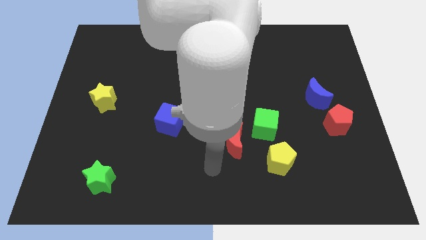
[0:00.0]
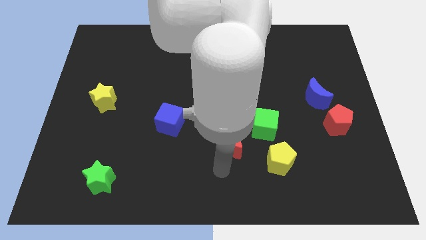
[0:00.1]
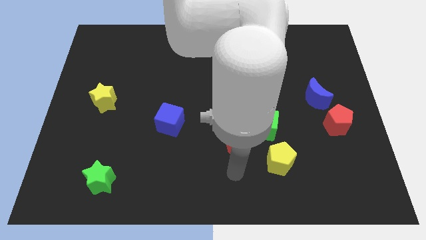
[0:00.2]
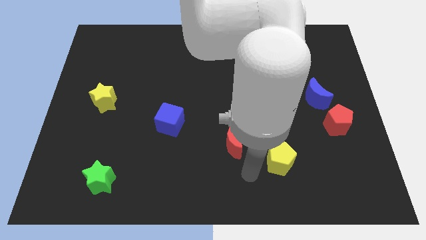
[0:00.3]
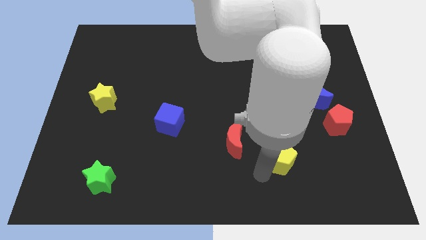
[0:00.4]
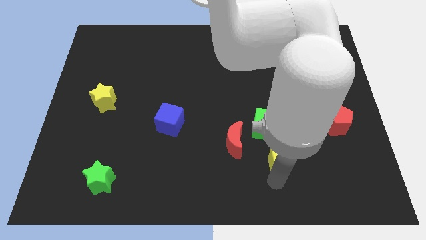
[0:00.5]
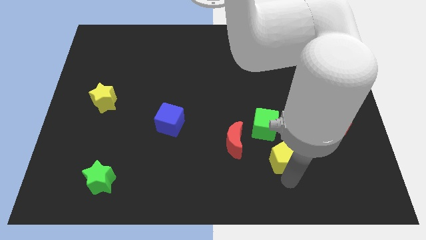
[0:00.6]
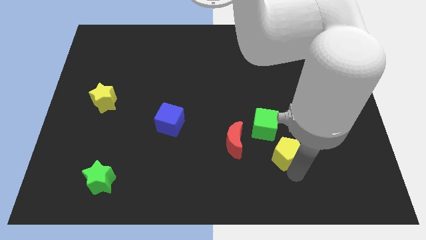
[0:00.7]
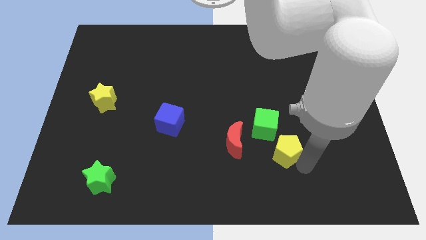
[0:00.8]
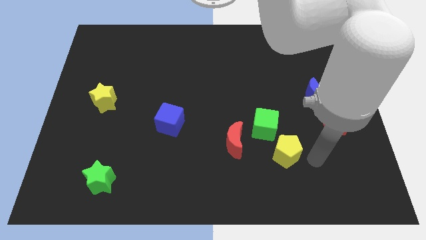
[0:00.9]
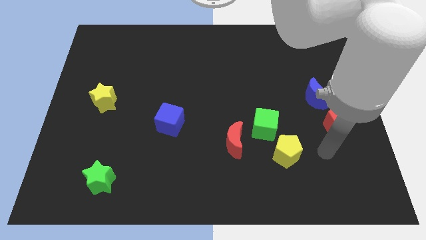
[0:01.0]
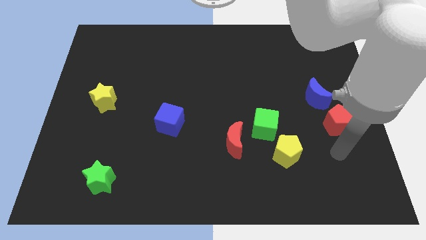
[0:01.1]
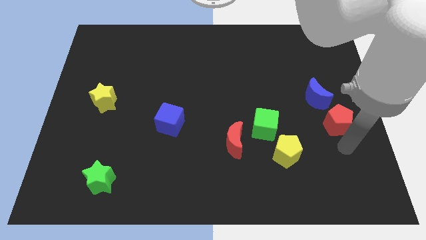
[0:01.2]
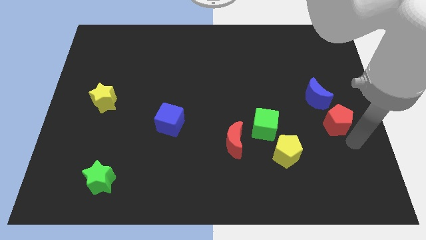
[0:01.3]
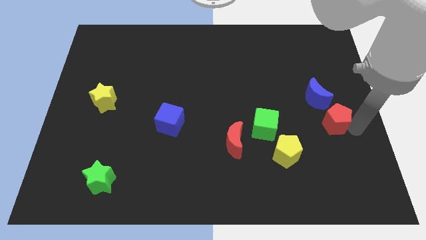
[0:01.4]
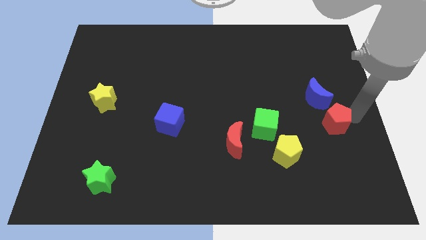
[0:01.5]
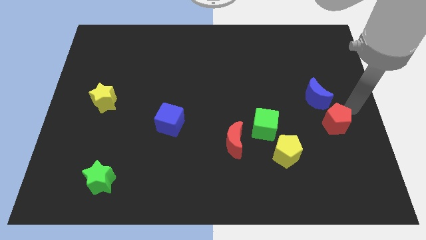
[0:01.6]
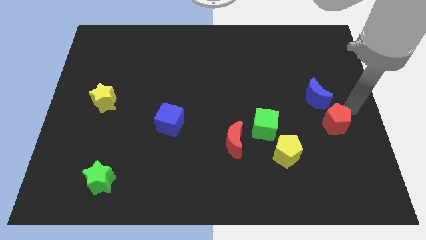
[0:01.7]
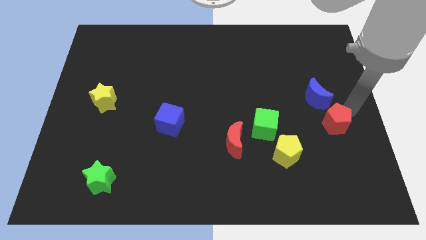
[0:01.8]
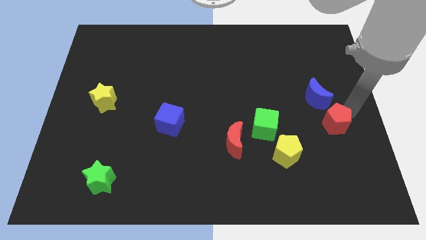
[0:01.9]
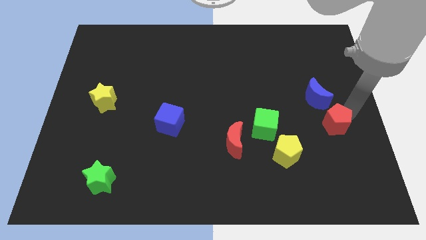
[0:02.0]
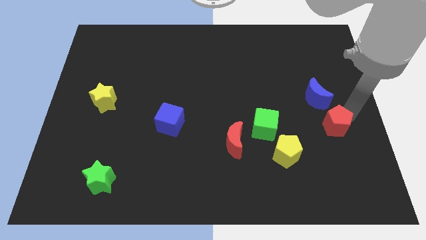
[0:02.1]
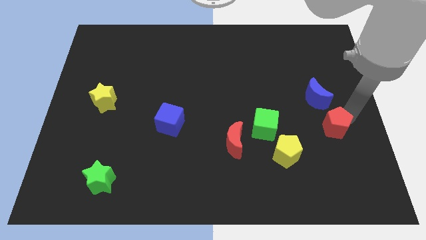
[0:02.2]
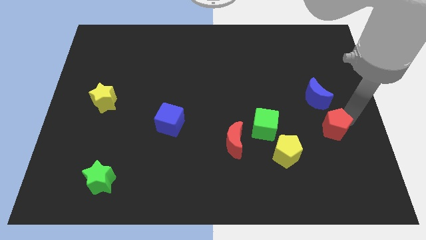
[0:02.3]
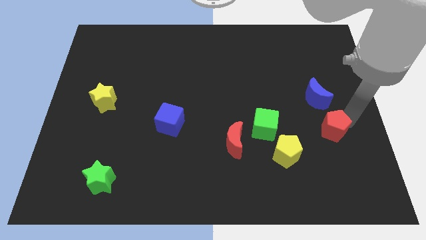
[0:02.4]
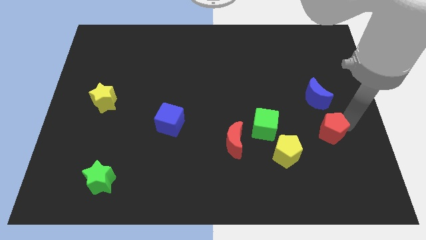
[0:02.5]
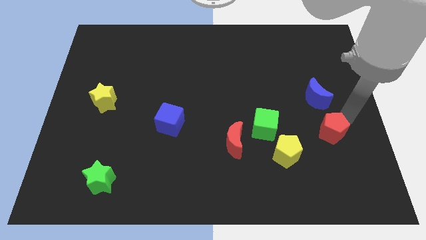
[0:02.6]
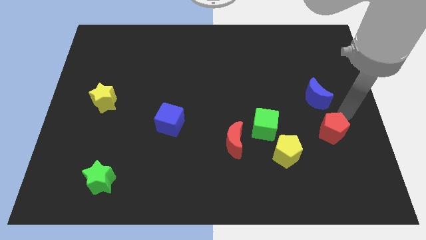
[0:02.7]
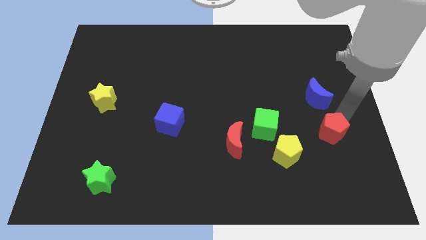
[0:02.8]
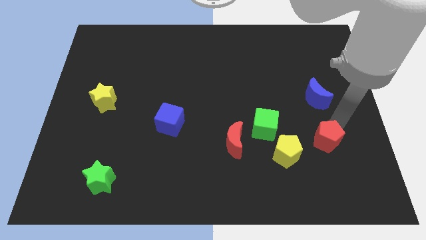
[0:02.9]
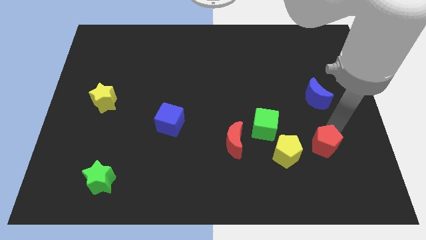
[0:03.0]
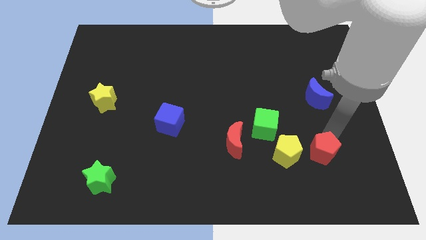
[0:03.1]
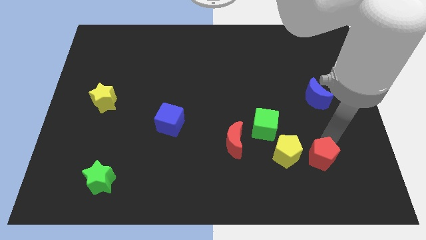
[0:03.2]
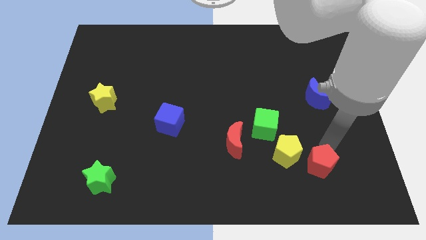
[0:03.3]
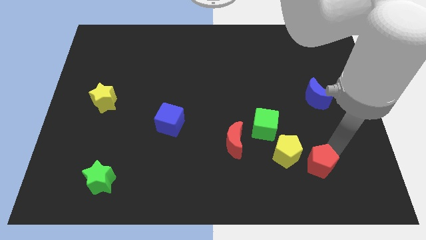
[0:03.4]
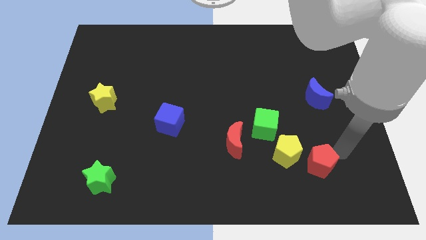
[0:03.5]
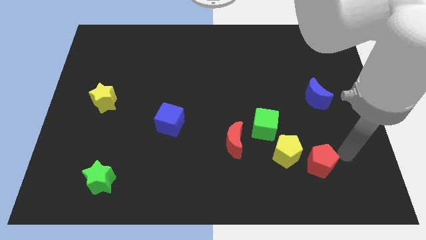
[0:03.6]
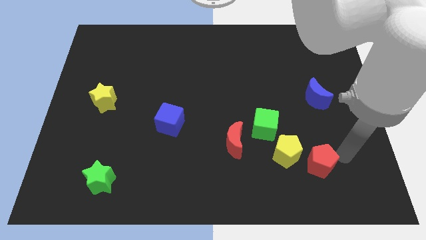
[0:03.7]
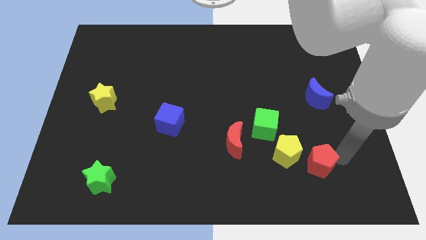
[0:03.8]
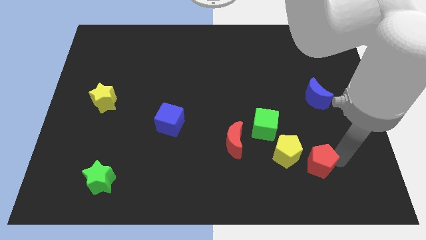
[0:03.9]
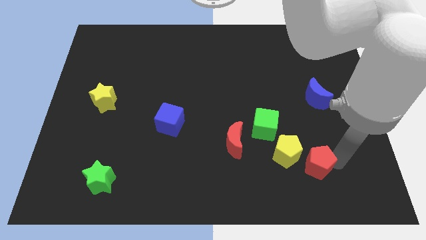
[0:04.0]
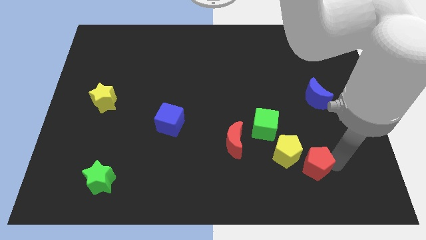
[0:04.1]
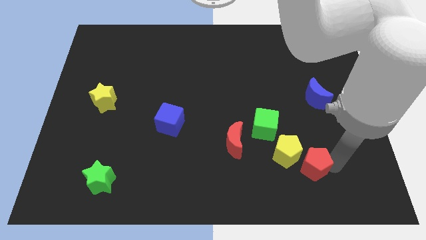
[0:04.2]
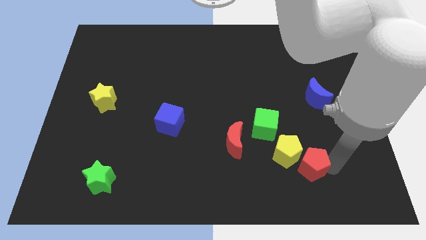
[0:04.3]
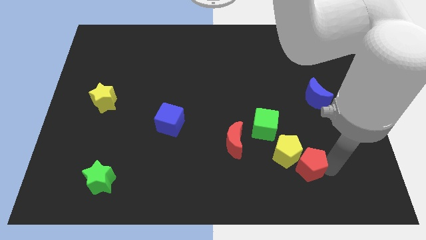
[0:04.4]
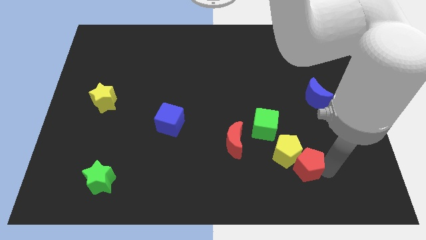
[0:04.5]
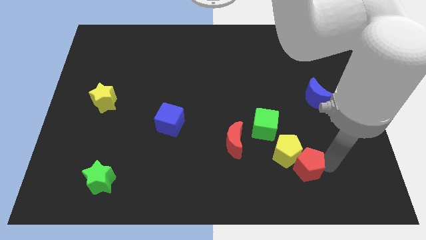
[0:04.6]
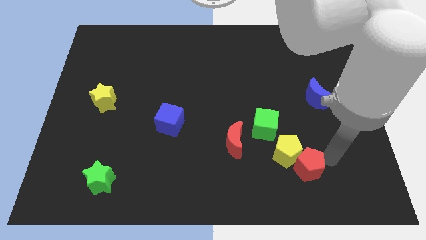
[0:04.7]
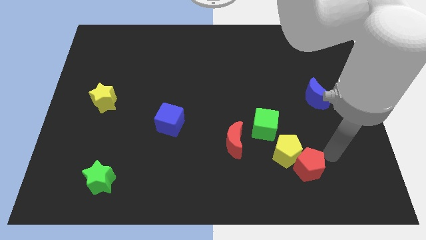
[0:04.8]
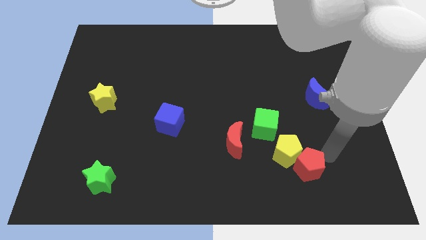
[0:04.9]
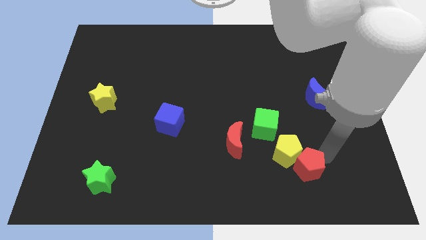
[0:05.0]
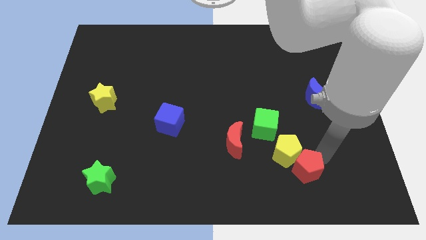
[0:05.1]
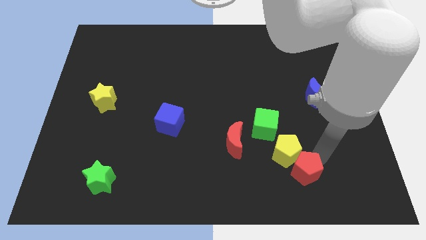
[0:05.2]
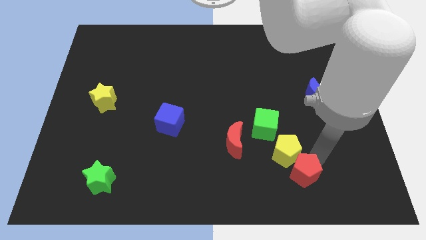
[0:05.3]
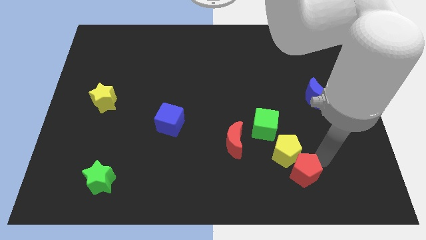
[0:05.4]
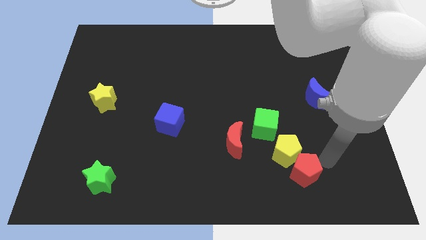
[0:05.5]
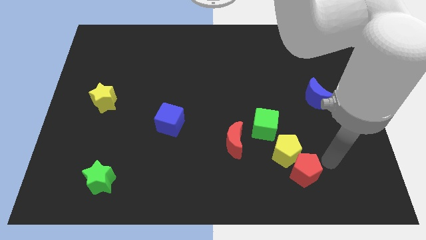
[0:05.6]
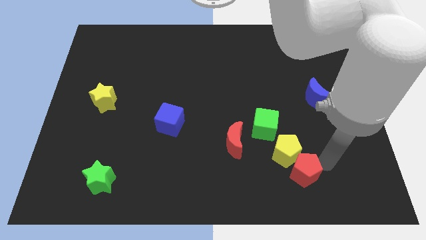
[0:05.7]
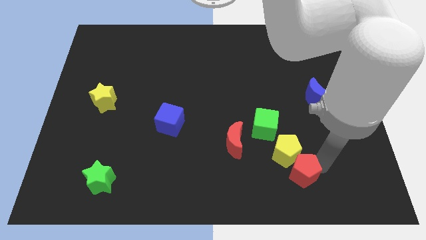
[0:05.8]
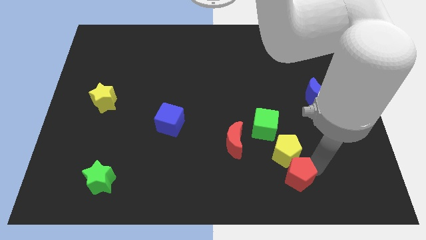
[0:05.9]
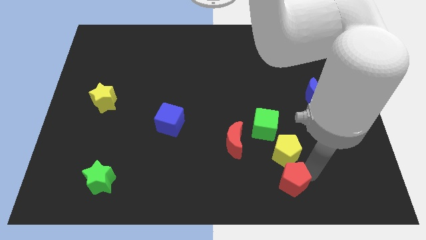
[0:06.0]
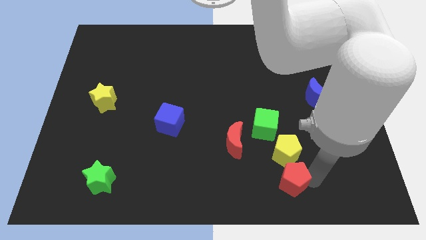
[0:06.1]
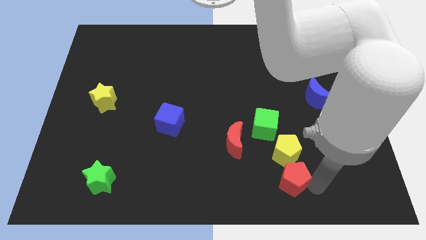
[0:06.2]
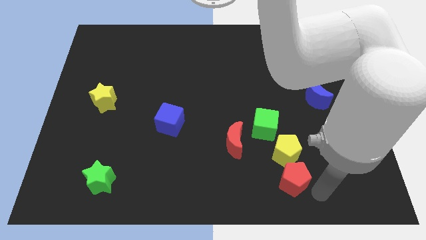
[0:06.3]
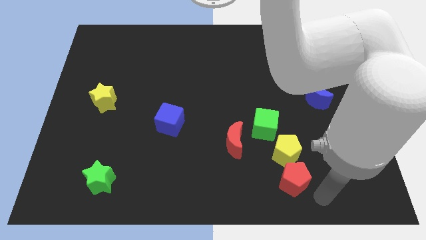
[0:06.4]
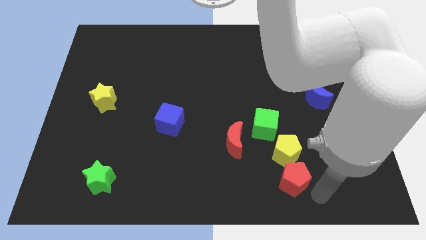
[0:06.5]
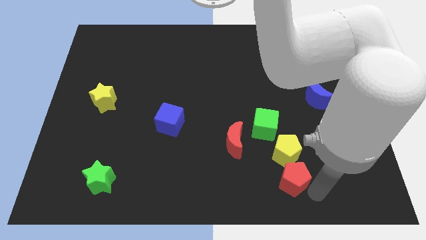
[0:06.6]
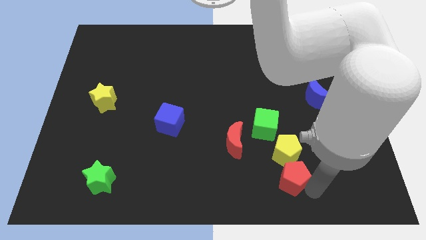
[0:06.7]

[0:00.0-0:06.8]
put the red pentagon to the bottom side of the green cube

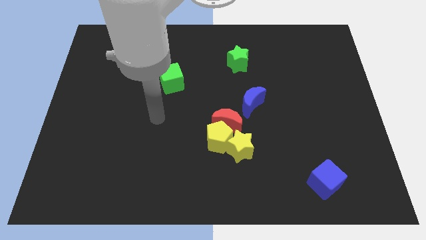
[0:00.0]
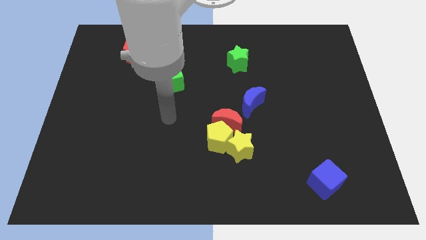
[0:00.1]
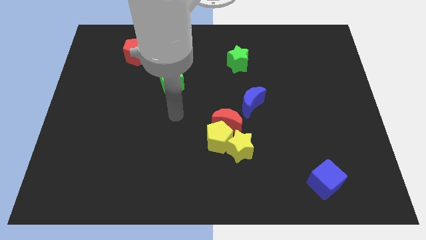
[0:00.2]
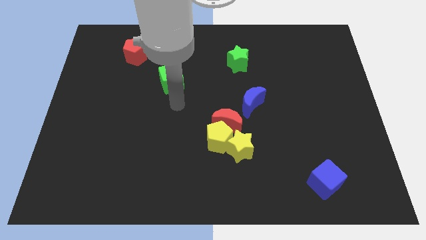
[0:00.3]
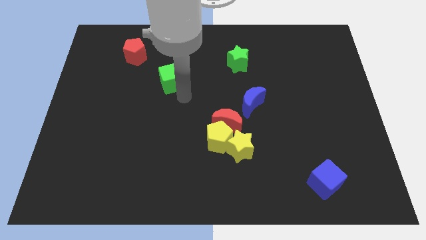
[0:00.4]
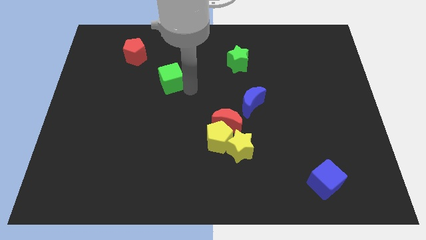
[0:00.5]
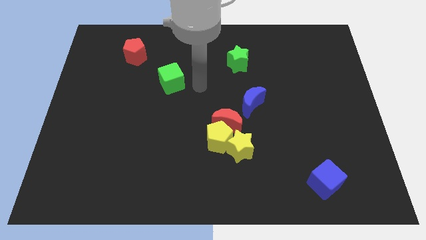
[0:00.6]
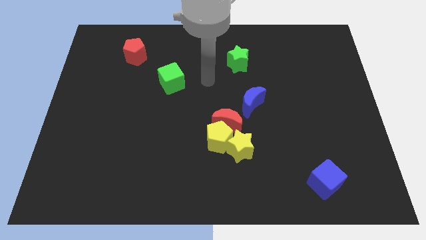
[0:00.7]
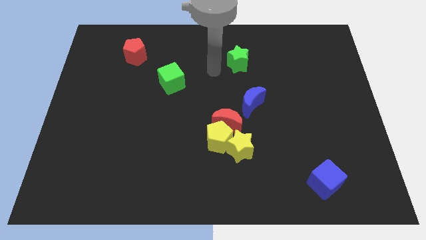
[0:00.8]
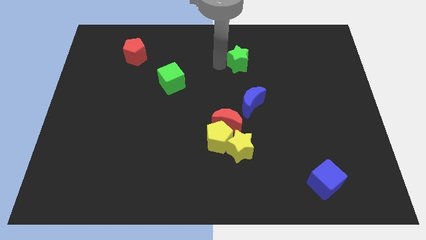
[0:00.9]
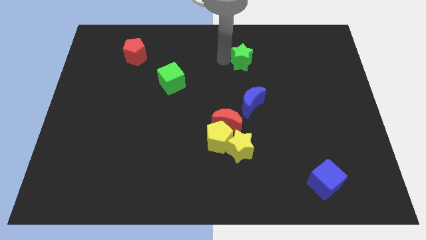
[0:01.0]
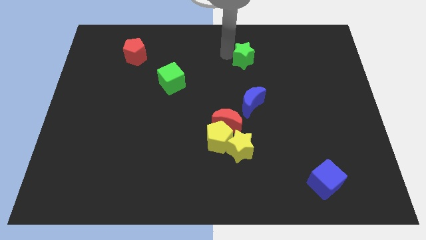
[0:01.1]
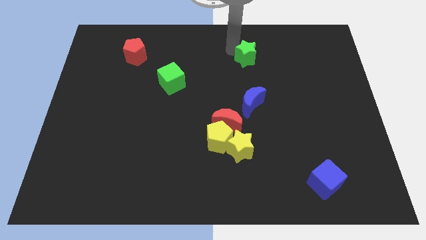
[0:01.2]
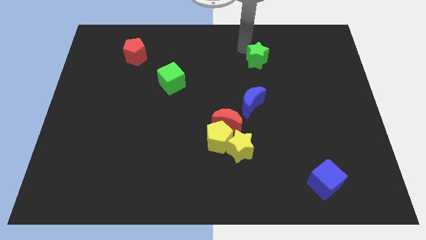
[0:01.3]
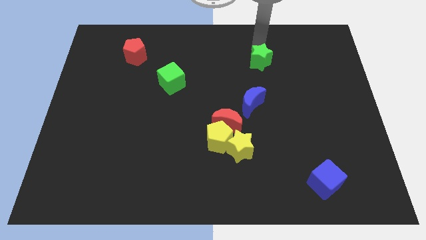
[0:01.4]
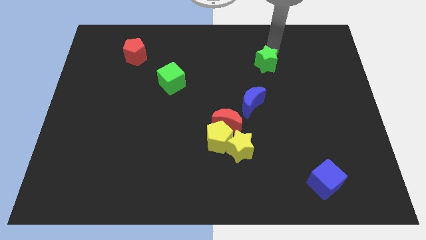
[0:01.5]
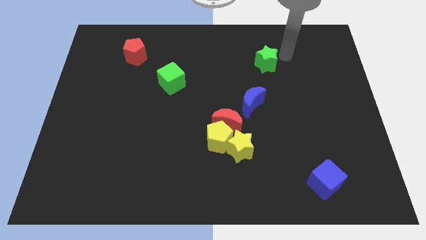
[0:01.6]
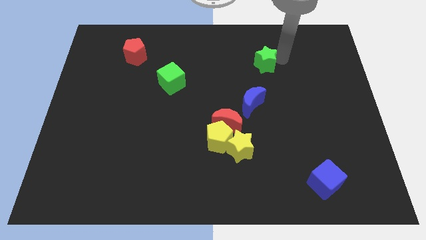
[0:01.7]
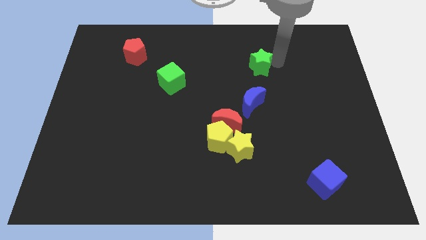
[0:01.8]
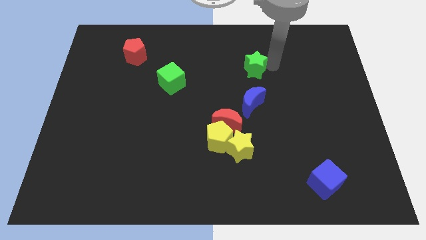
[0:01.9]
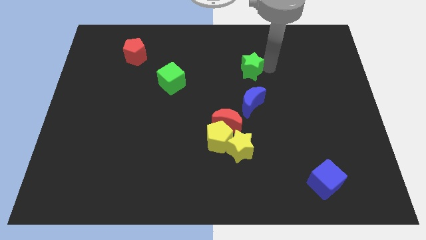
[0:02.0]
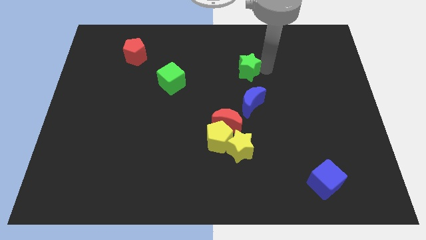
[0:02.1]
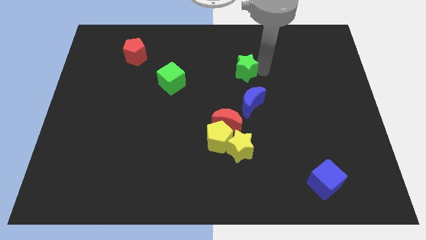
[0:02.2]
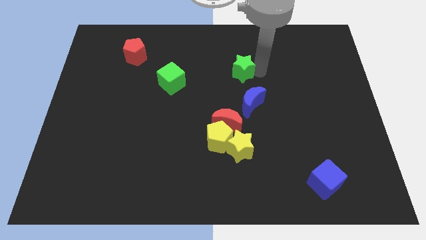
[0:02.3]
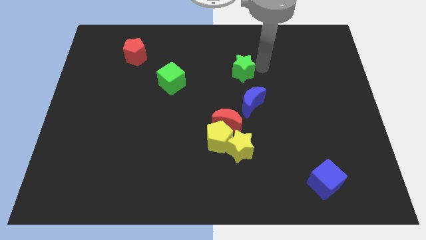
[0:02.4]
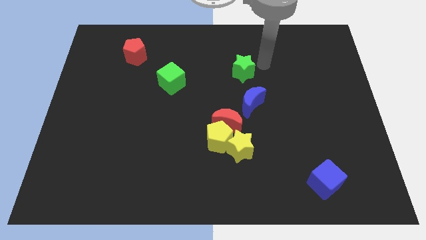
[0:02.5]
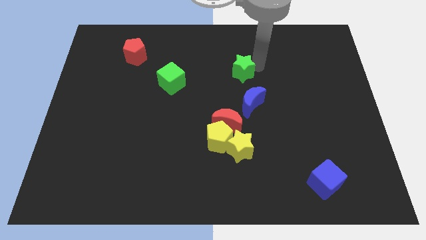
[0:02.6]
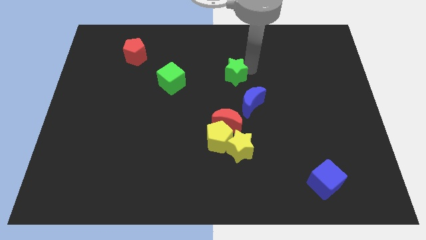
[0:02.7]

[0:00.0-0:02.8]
move the green star to the right side of the green cube
